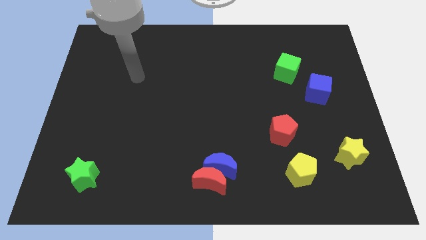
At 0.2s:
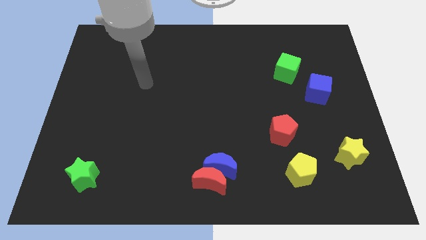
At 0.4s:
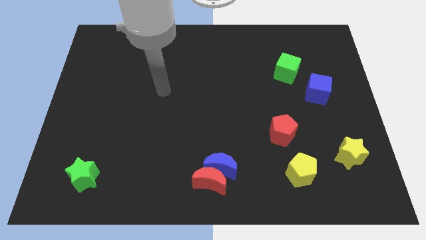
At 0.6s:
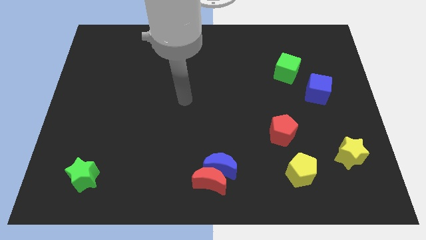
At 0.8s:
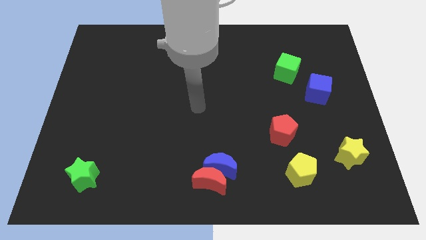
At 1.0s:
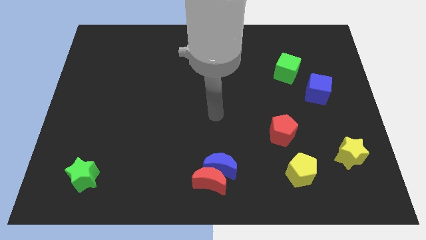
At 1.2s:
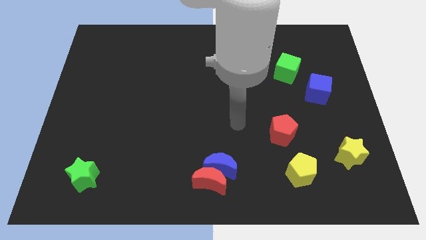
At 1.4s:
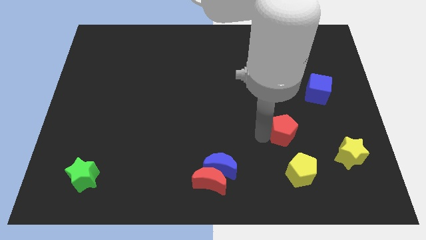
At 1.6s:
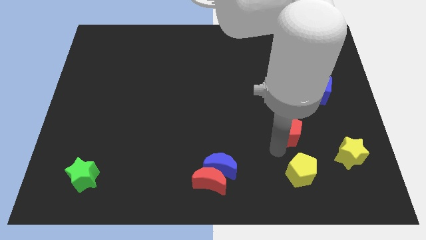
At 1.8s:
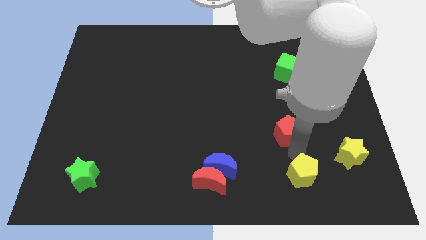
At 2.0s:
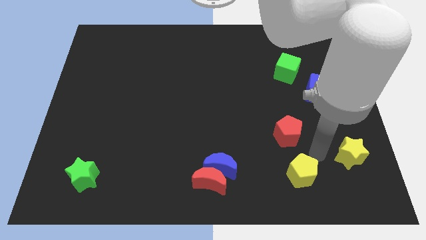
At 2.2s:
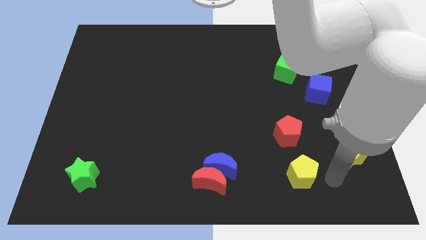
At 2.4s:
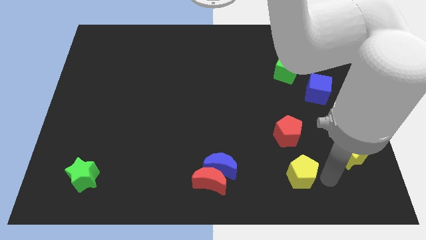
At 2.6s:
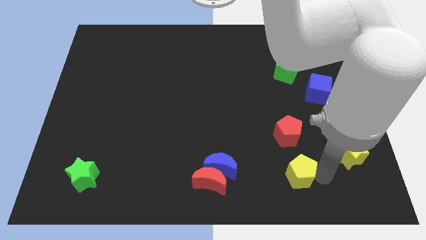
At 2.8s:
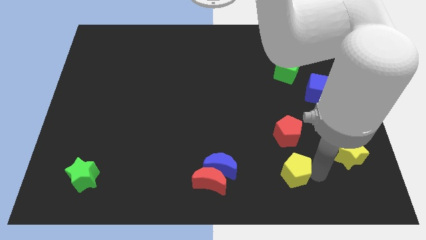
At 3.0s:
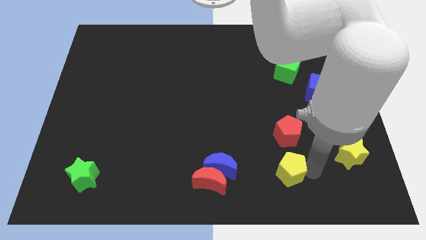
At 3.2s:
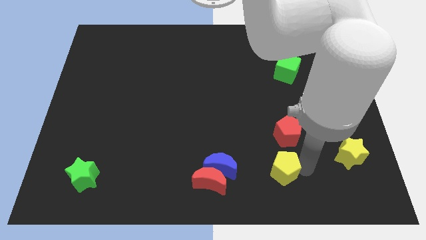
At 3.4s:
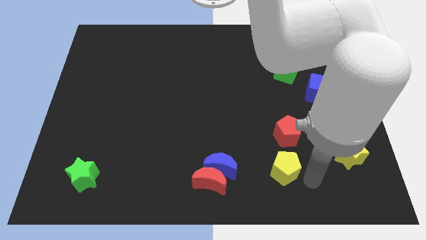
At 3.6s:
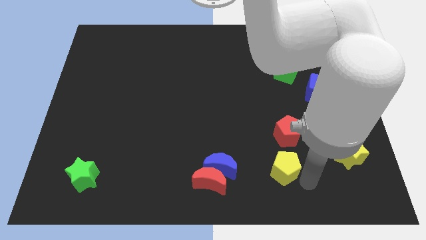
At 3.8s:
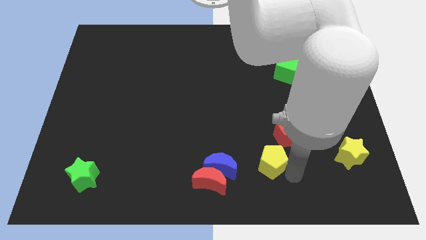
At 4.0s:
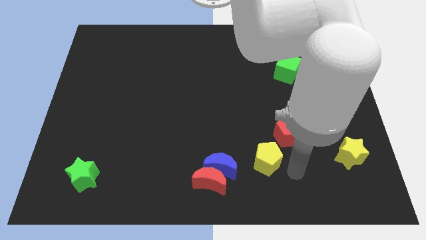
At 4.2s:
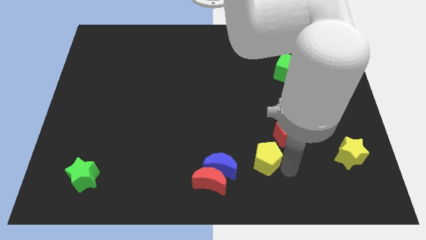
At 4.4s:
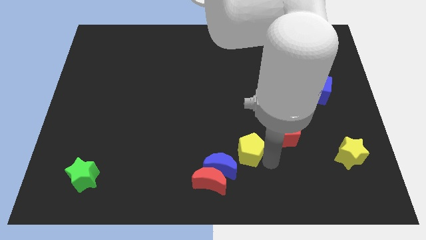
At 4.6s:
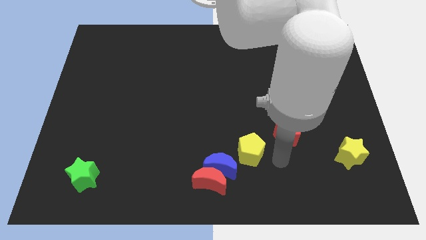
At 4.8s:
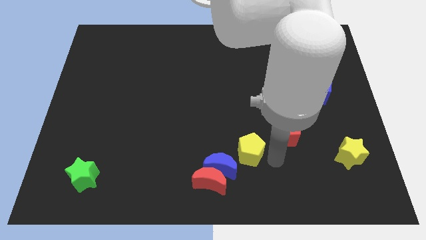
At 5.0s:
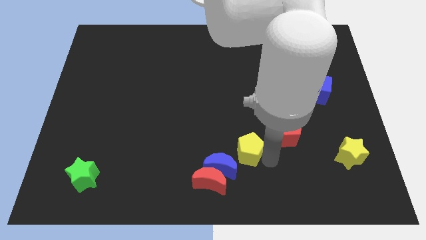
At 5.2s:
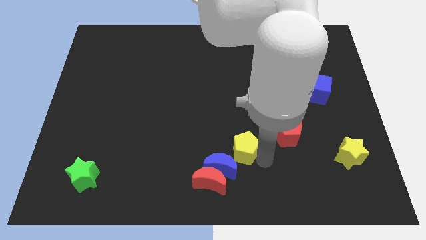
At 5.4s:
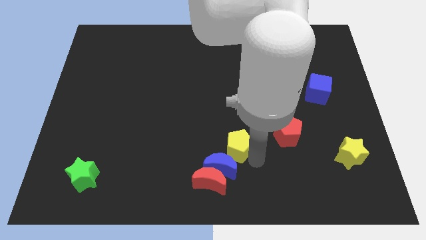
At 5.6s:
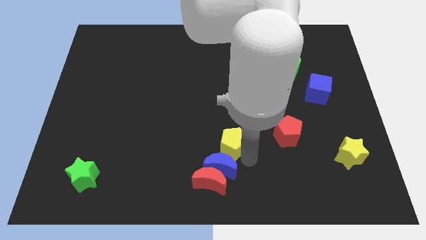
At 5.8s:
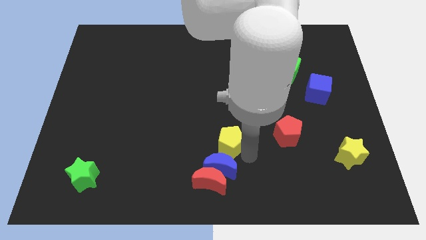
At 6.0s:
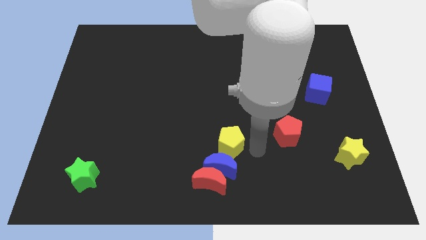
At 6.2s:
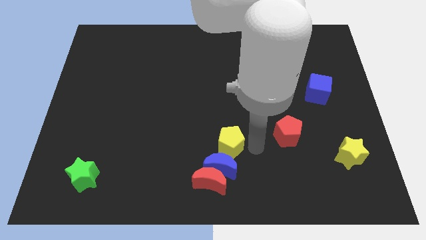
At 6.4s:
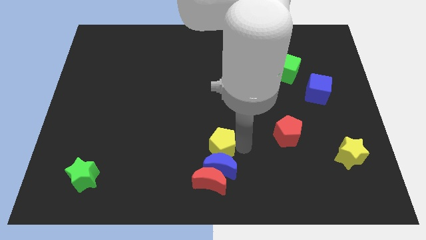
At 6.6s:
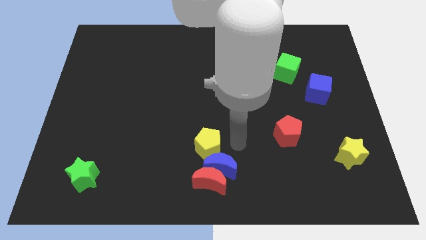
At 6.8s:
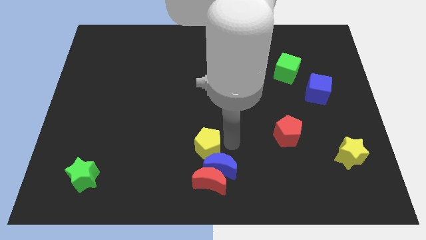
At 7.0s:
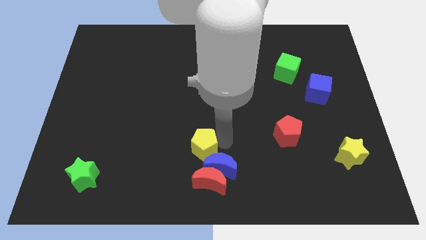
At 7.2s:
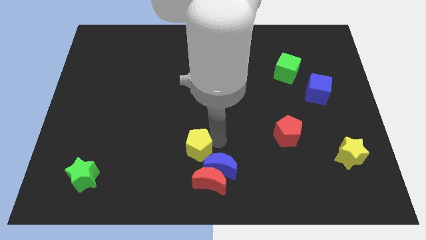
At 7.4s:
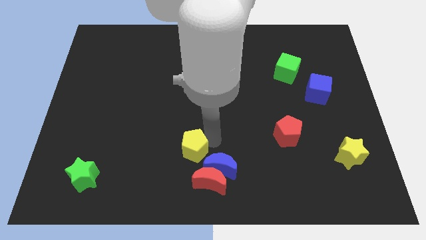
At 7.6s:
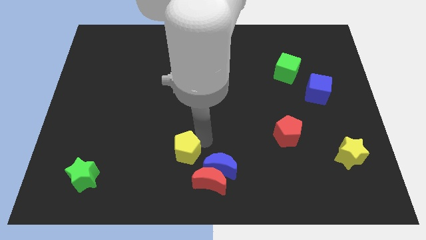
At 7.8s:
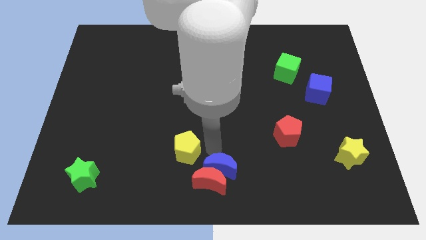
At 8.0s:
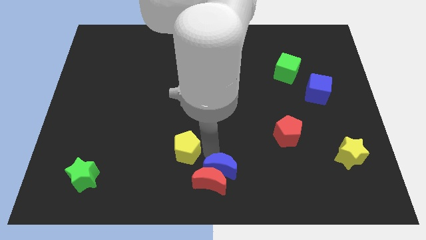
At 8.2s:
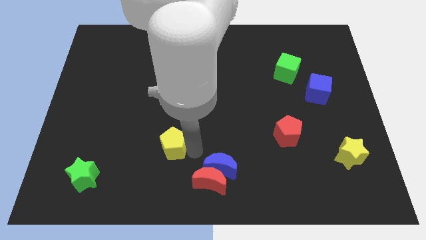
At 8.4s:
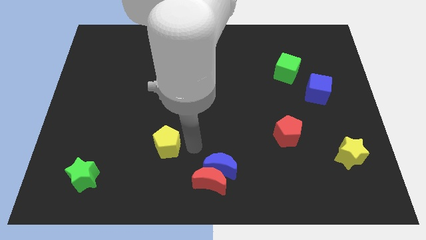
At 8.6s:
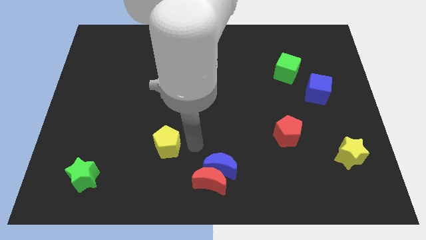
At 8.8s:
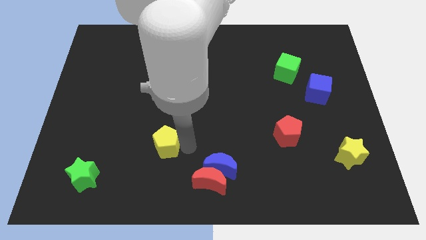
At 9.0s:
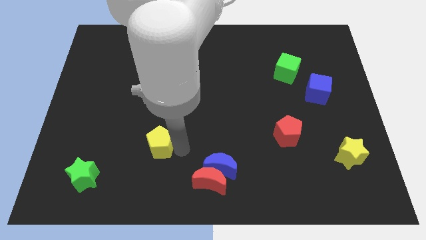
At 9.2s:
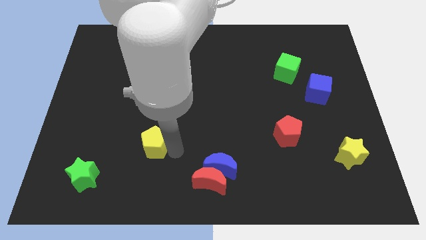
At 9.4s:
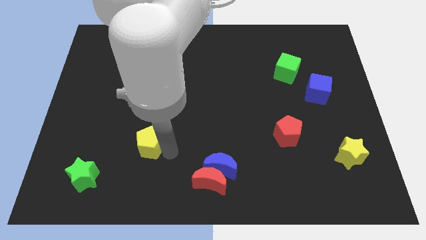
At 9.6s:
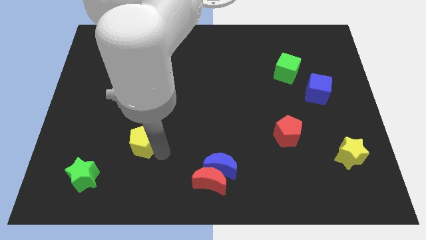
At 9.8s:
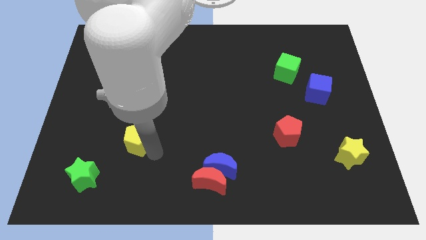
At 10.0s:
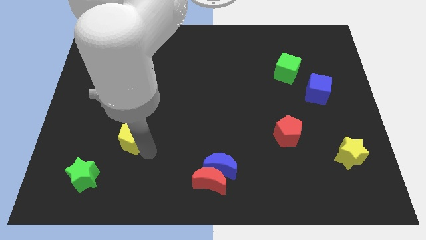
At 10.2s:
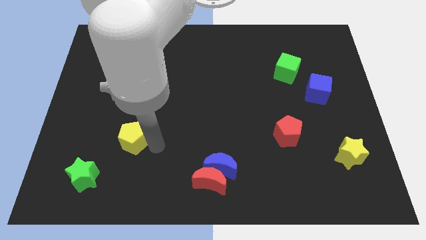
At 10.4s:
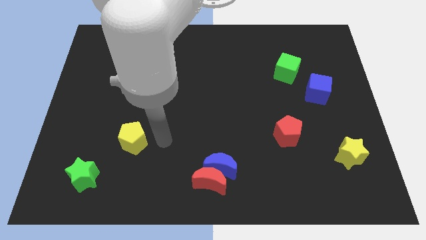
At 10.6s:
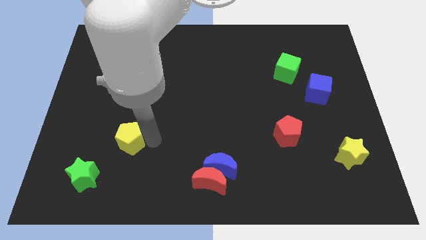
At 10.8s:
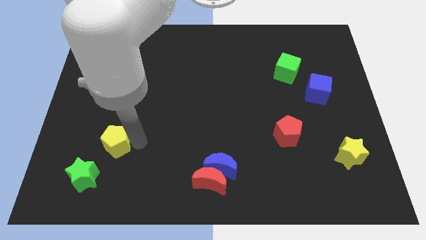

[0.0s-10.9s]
put the yellow pentagon to the top of the green star

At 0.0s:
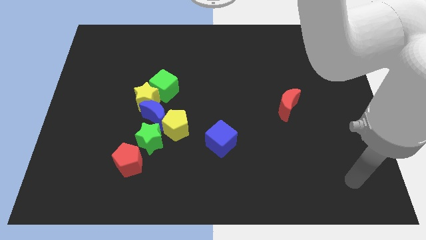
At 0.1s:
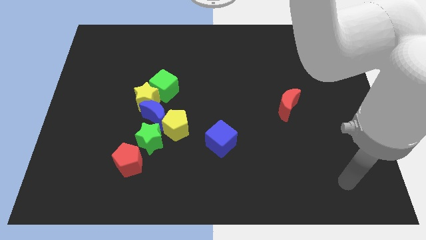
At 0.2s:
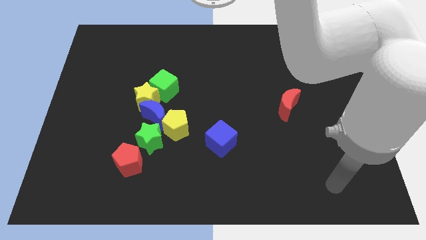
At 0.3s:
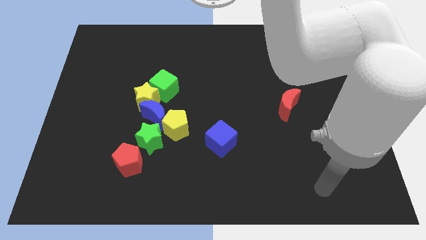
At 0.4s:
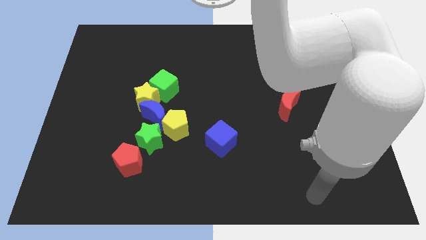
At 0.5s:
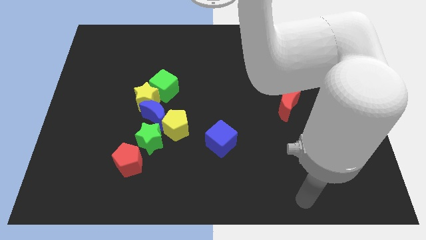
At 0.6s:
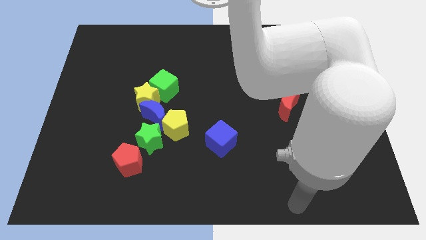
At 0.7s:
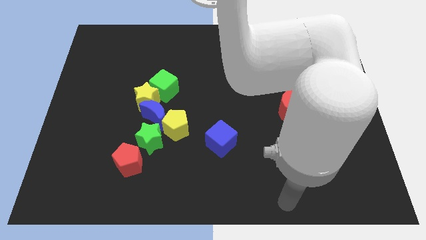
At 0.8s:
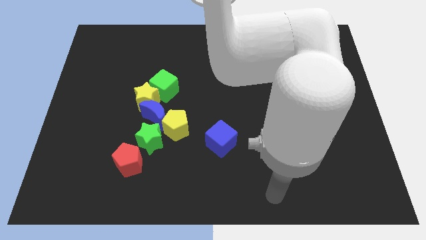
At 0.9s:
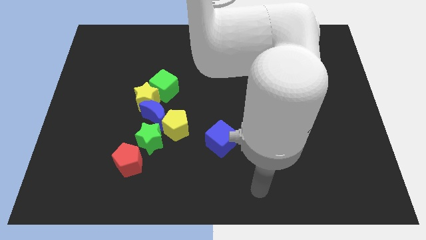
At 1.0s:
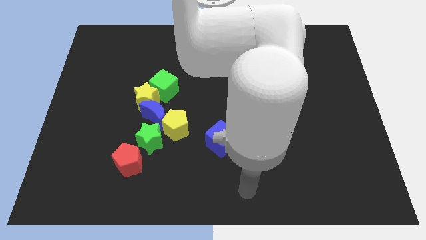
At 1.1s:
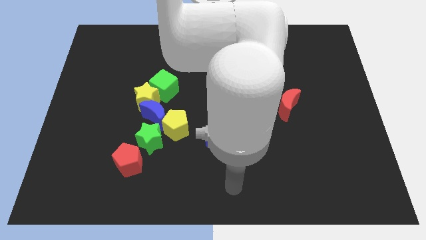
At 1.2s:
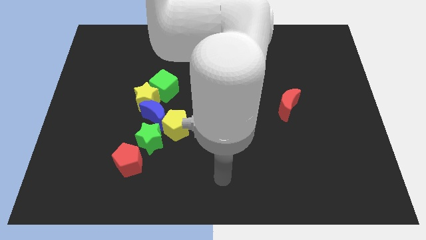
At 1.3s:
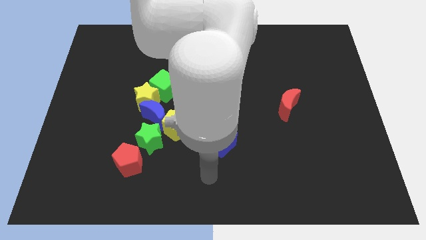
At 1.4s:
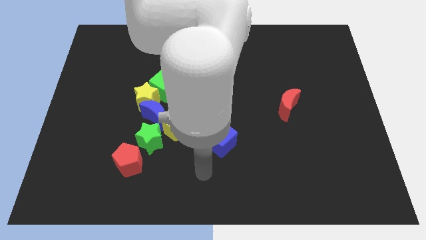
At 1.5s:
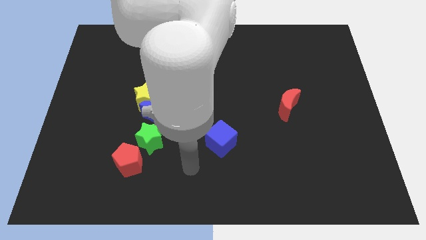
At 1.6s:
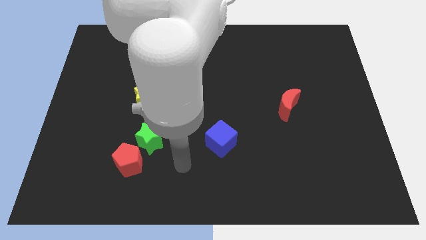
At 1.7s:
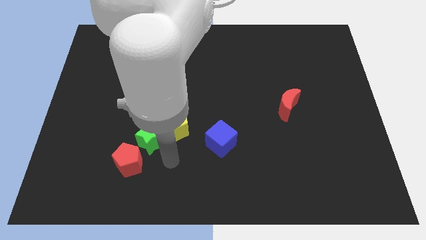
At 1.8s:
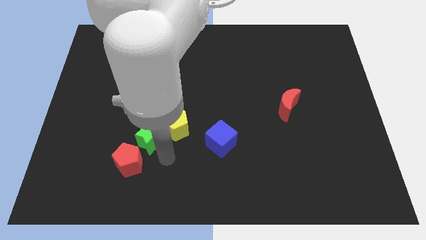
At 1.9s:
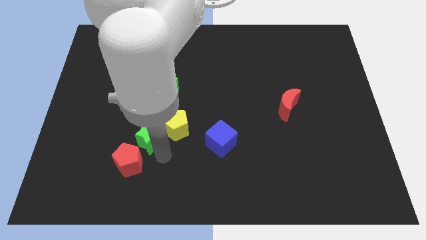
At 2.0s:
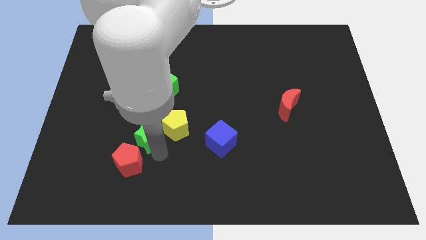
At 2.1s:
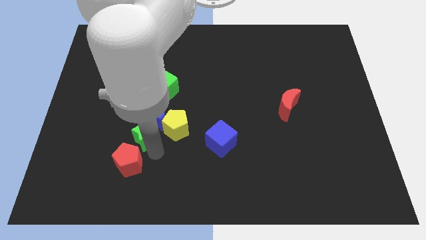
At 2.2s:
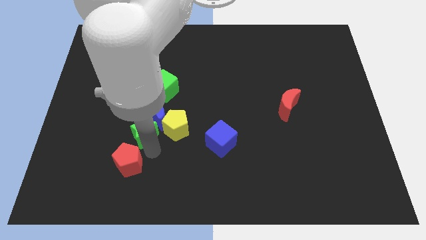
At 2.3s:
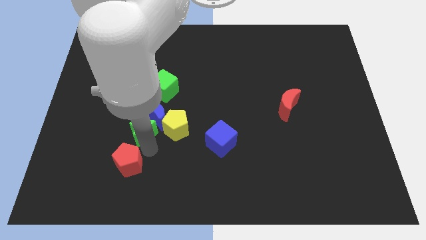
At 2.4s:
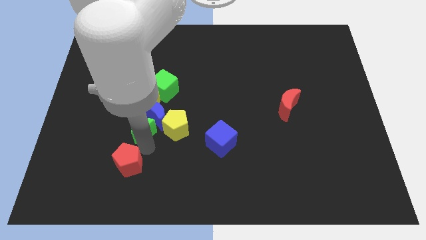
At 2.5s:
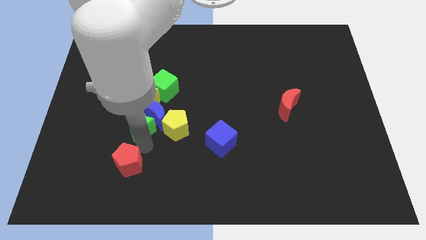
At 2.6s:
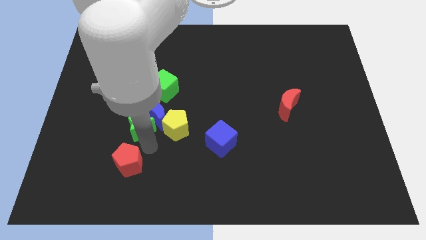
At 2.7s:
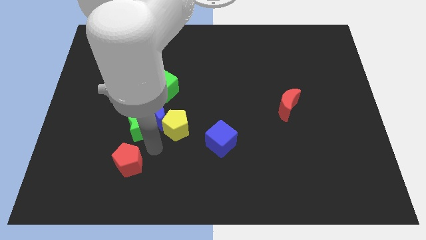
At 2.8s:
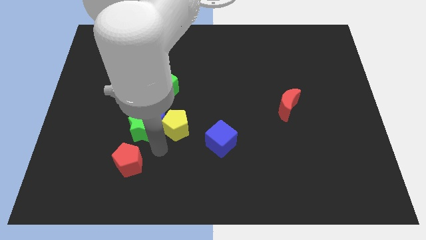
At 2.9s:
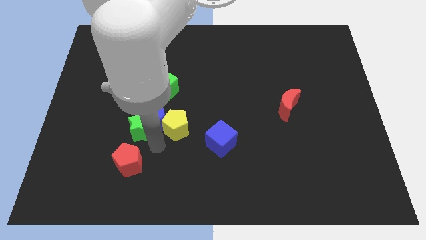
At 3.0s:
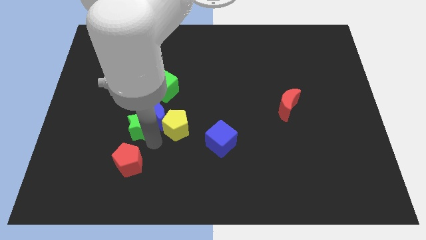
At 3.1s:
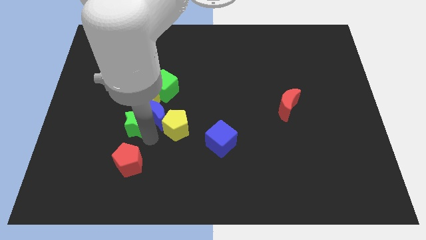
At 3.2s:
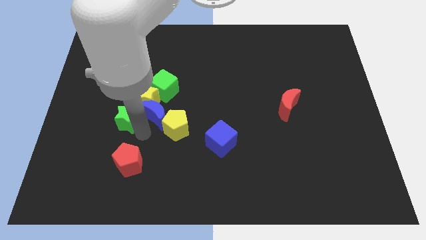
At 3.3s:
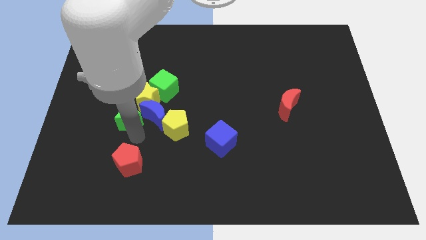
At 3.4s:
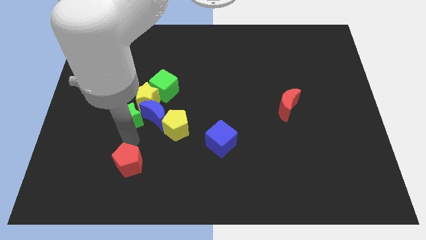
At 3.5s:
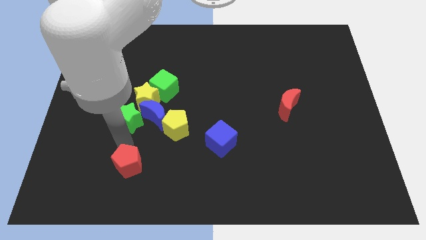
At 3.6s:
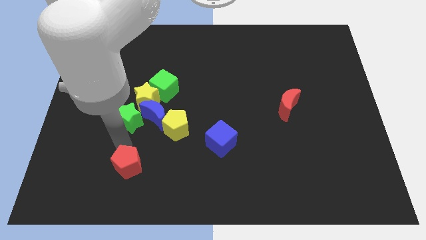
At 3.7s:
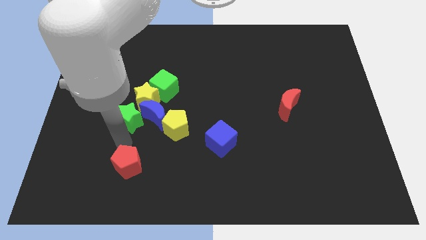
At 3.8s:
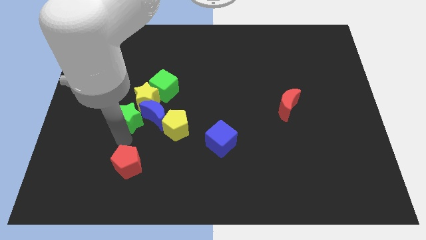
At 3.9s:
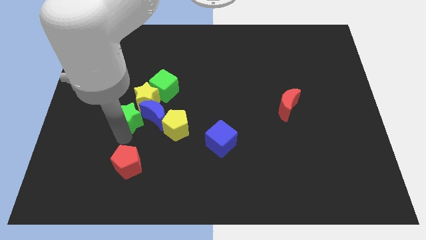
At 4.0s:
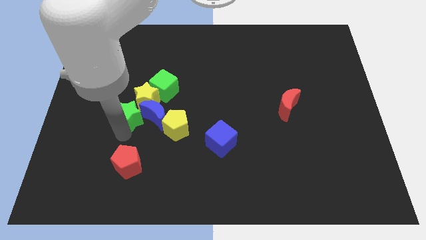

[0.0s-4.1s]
slide the green star to the top left side of the blue moon
